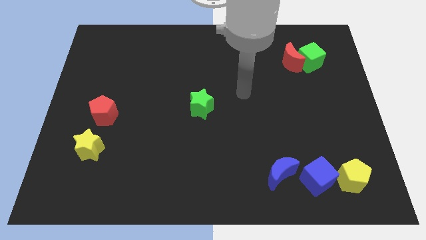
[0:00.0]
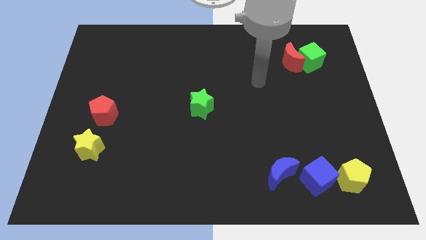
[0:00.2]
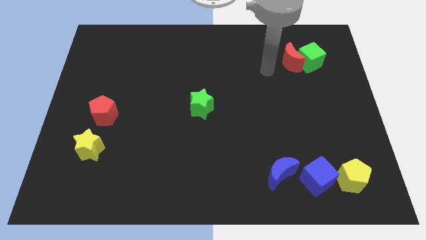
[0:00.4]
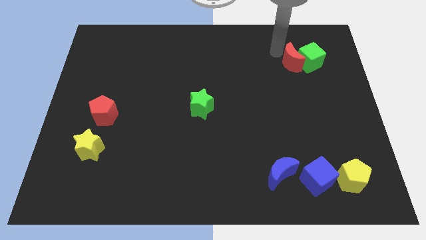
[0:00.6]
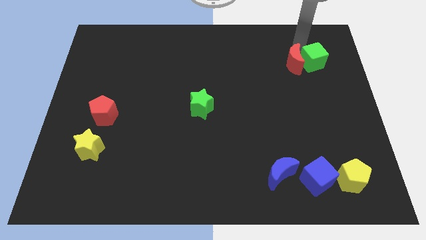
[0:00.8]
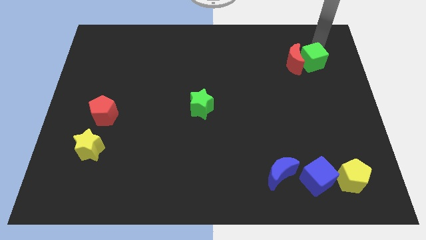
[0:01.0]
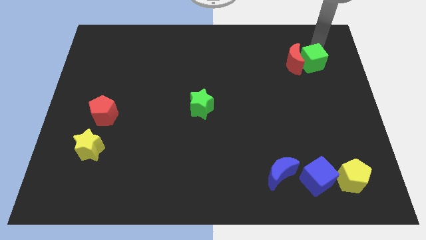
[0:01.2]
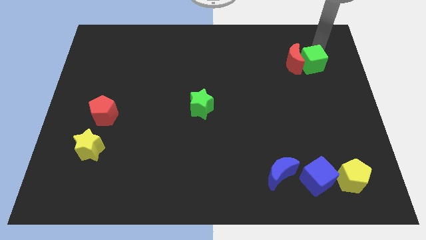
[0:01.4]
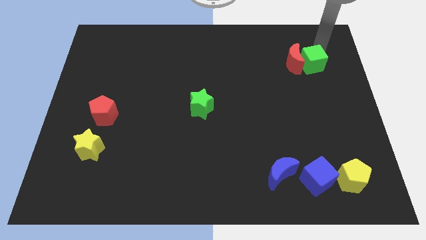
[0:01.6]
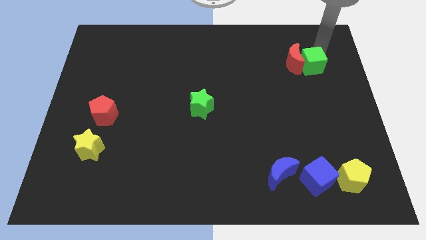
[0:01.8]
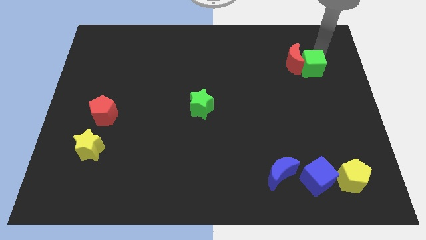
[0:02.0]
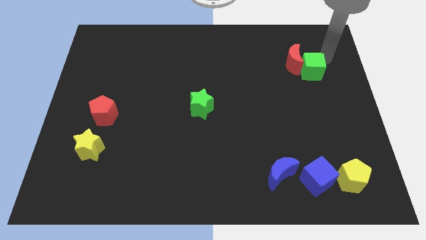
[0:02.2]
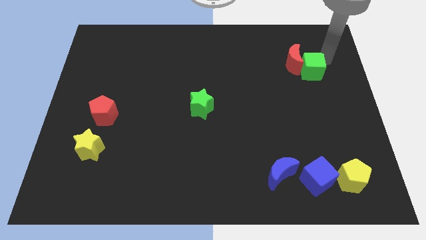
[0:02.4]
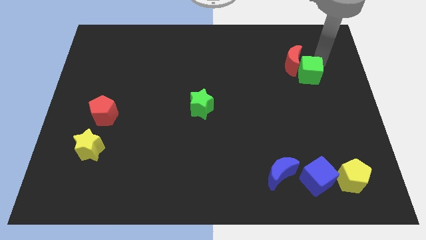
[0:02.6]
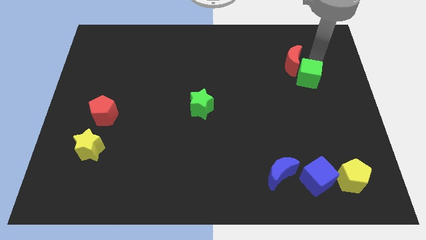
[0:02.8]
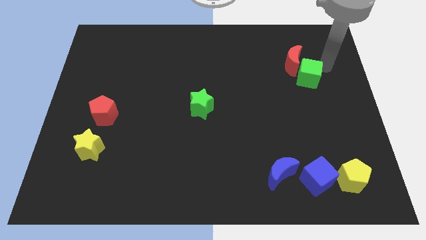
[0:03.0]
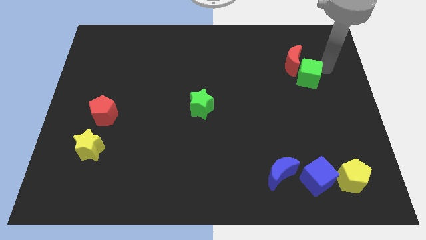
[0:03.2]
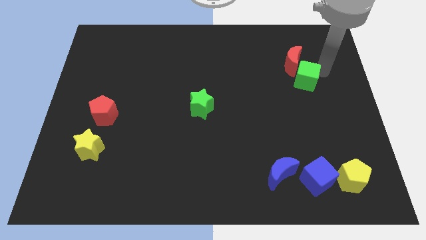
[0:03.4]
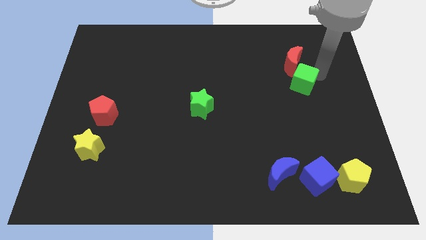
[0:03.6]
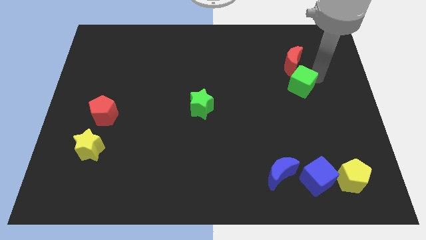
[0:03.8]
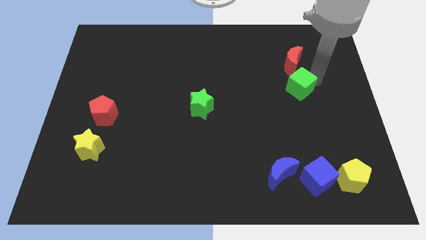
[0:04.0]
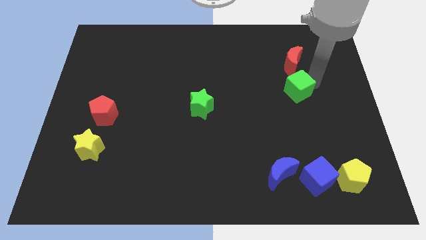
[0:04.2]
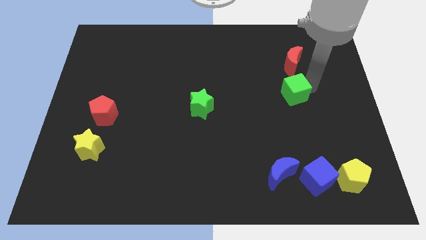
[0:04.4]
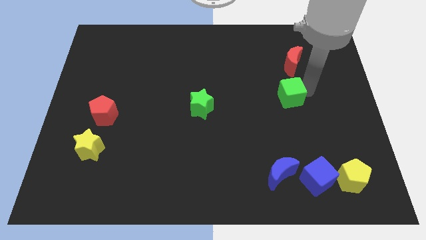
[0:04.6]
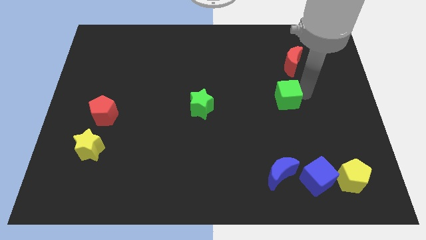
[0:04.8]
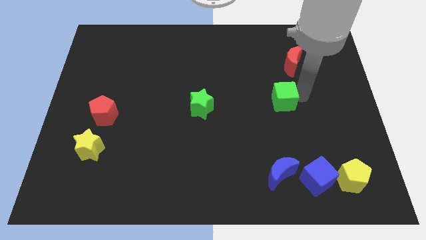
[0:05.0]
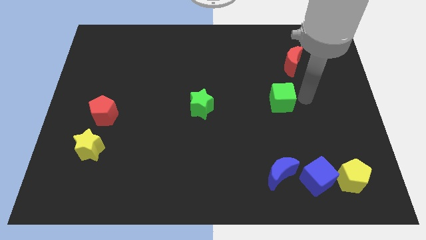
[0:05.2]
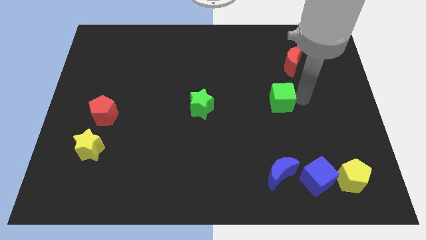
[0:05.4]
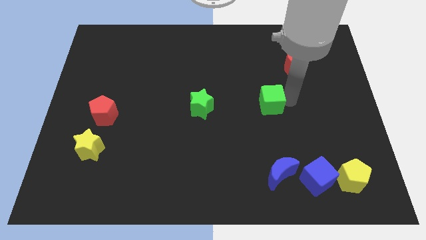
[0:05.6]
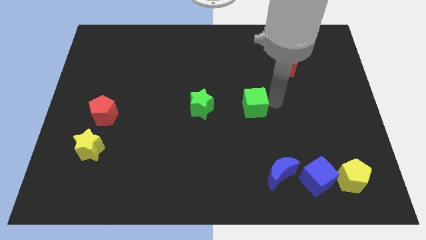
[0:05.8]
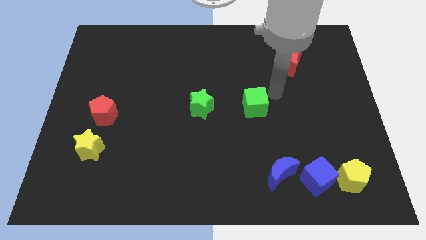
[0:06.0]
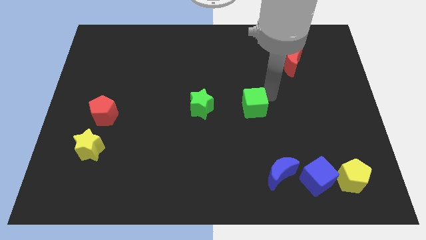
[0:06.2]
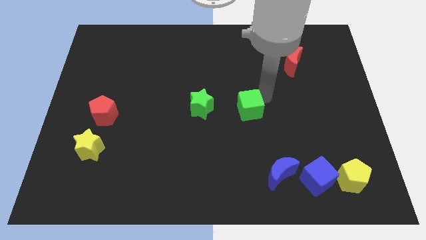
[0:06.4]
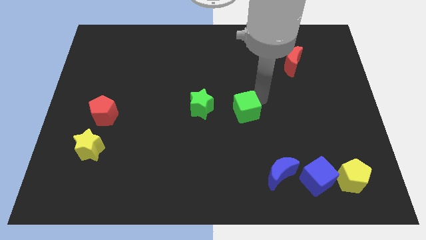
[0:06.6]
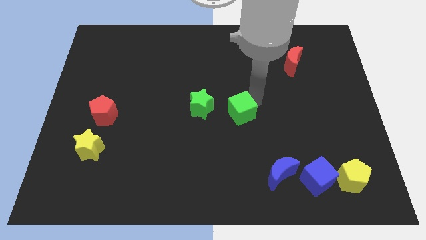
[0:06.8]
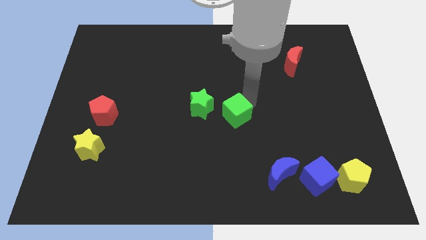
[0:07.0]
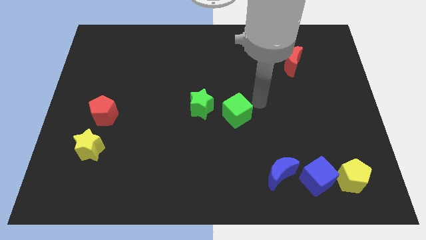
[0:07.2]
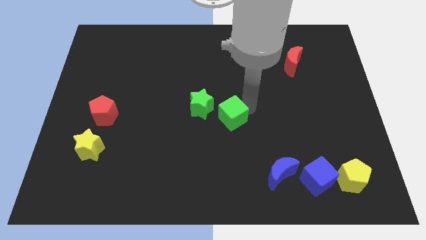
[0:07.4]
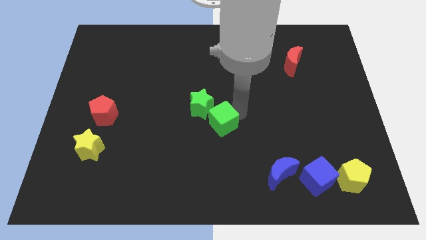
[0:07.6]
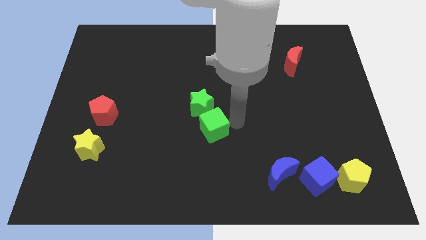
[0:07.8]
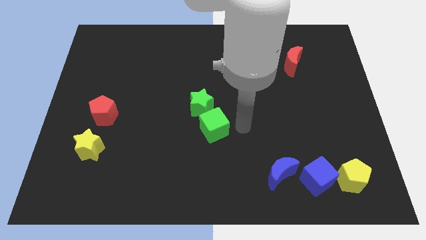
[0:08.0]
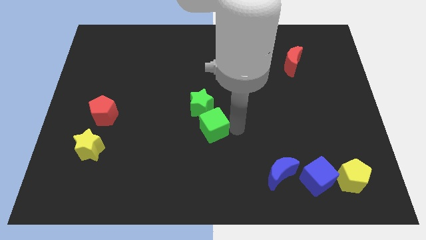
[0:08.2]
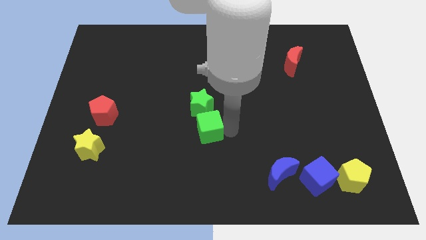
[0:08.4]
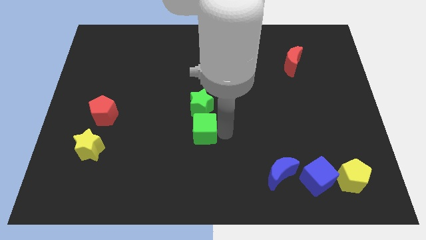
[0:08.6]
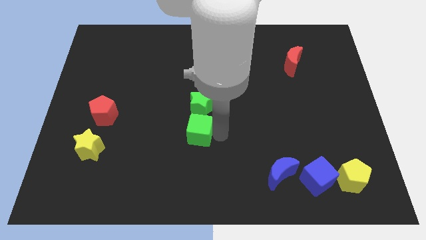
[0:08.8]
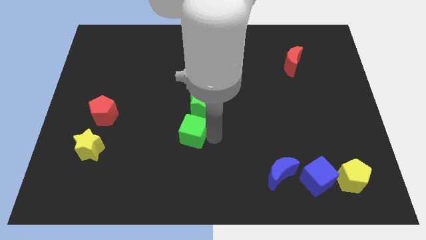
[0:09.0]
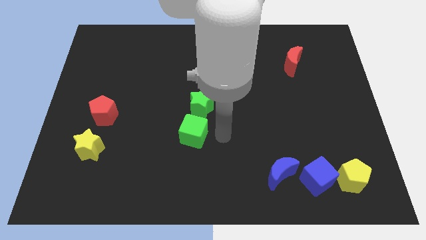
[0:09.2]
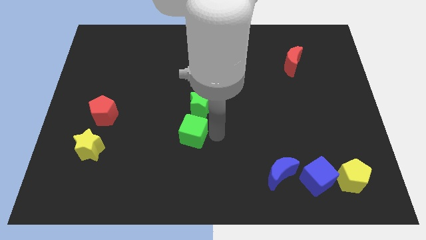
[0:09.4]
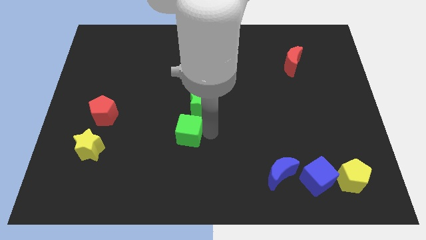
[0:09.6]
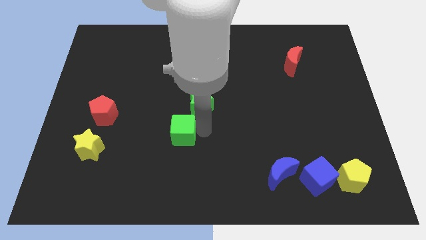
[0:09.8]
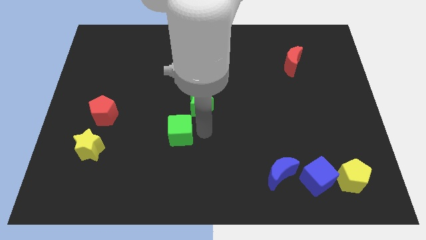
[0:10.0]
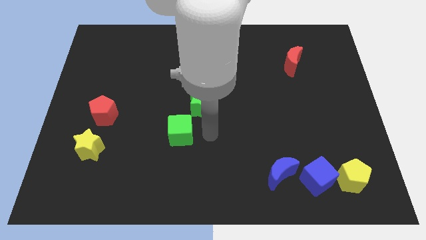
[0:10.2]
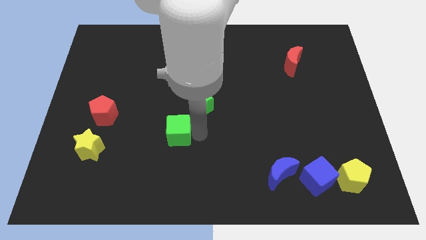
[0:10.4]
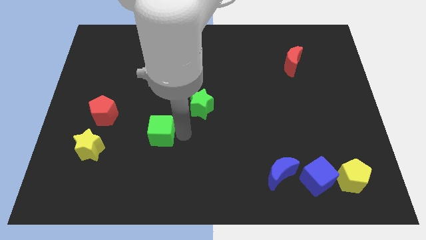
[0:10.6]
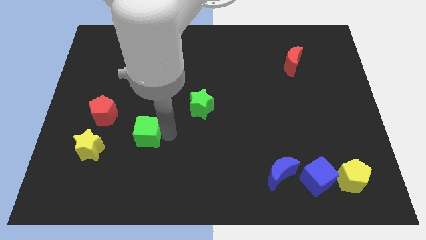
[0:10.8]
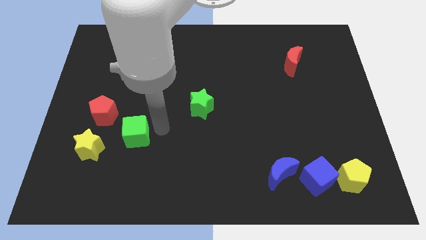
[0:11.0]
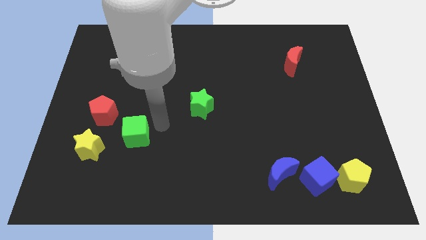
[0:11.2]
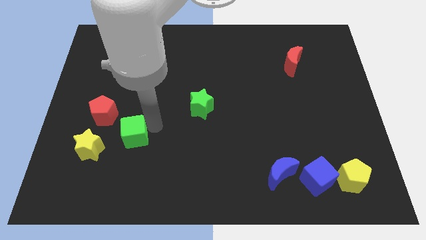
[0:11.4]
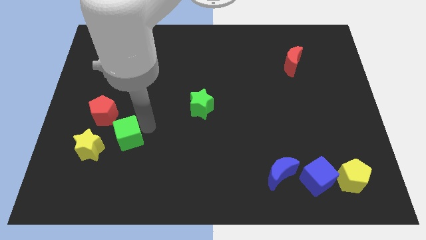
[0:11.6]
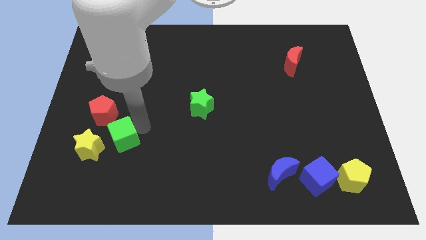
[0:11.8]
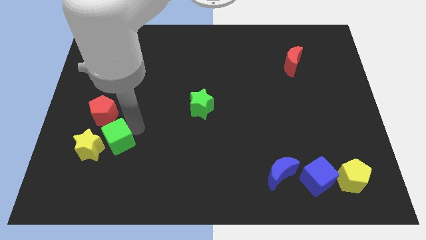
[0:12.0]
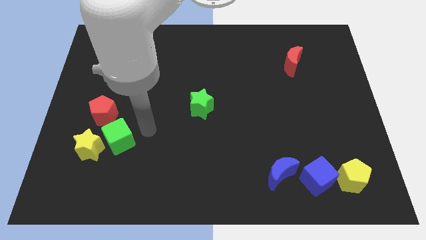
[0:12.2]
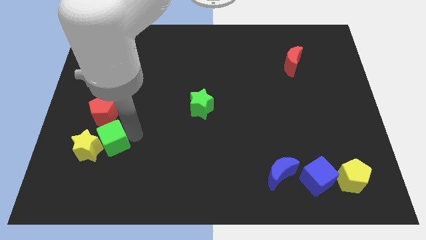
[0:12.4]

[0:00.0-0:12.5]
push the green cube to the yellow star

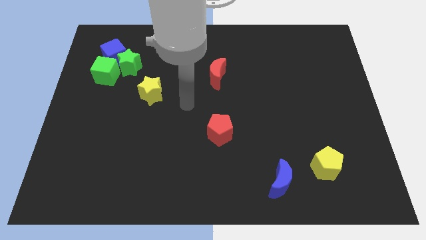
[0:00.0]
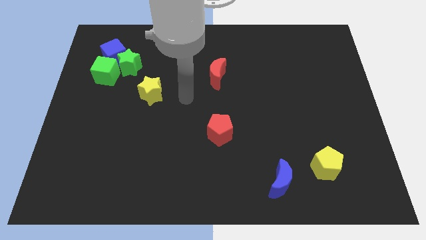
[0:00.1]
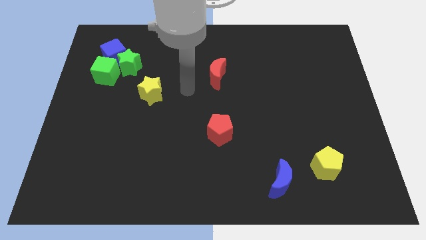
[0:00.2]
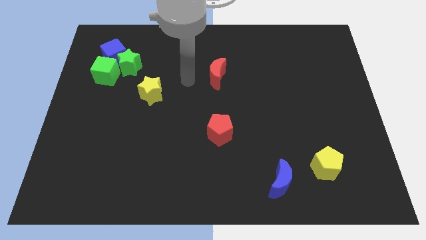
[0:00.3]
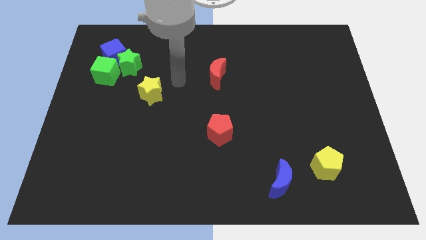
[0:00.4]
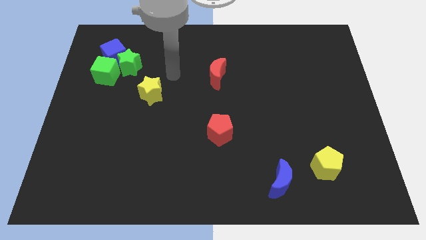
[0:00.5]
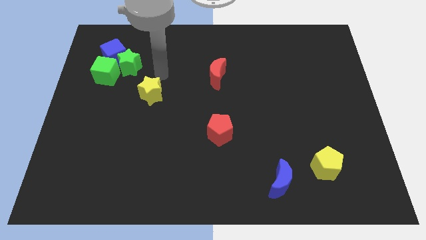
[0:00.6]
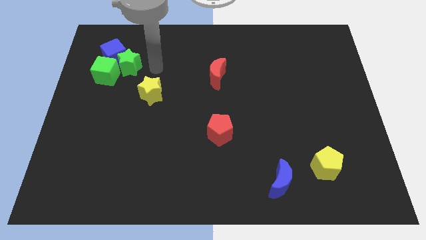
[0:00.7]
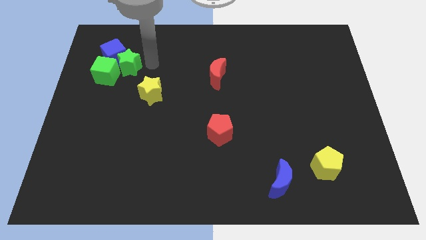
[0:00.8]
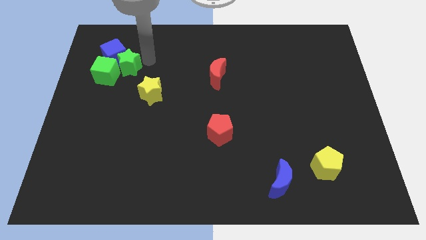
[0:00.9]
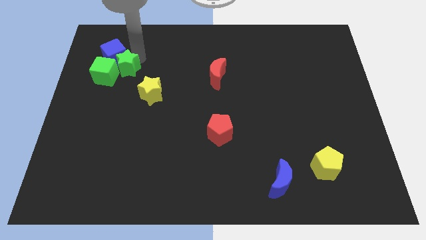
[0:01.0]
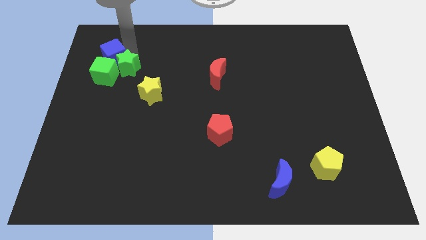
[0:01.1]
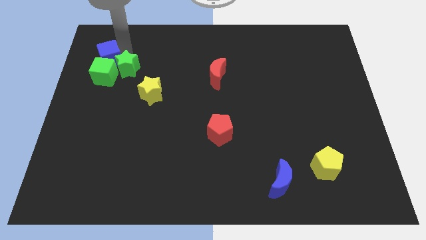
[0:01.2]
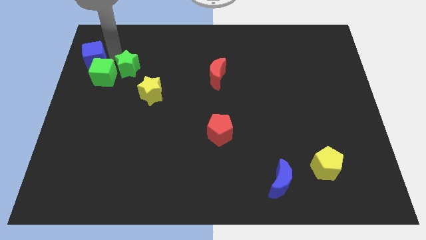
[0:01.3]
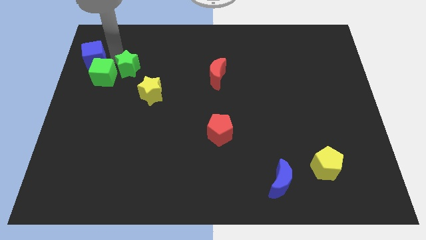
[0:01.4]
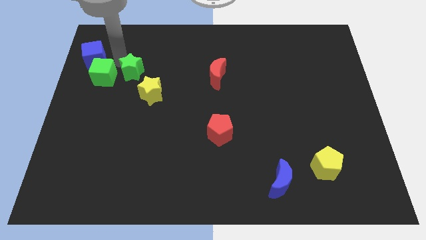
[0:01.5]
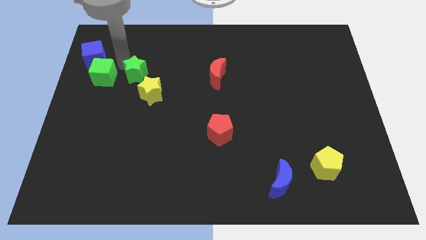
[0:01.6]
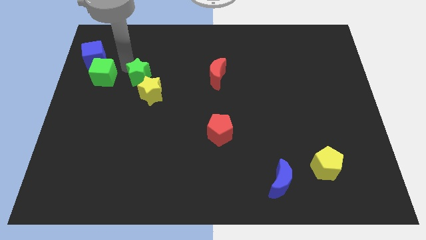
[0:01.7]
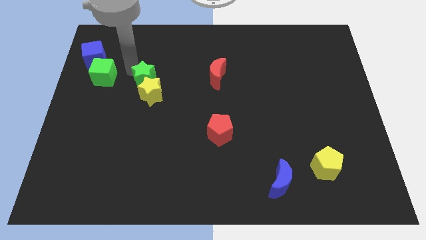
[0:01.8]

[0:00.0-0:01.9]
slide the green star towards the yellow star
